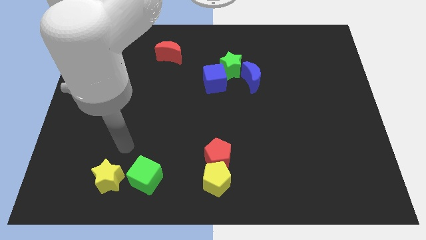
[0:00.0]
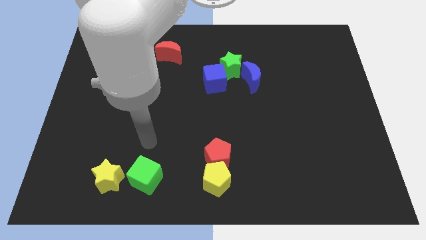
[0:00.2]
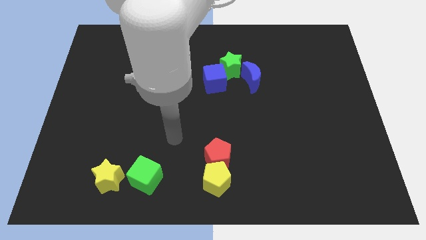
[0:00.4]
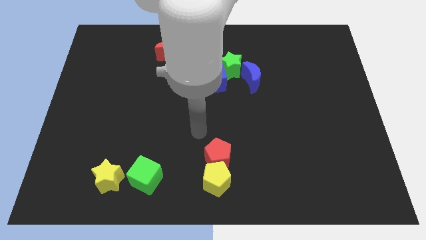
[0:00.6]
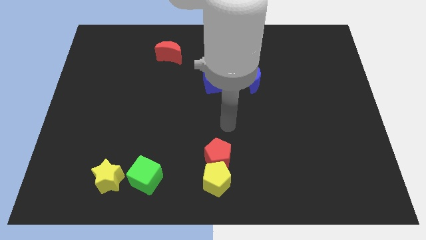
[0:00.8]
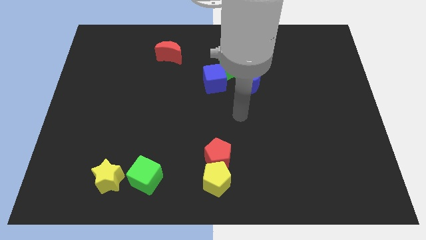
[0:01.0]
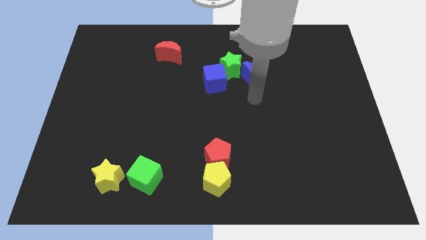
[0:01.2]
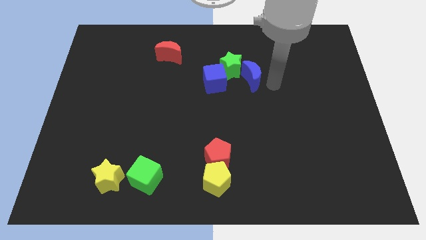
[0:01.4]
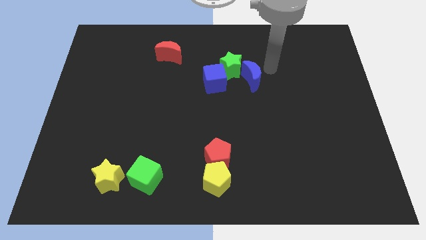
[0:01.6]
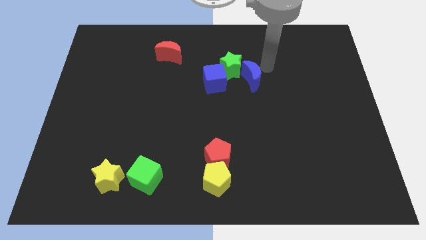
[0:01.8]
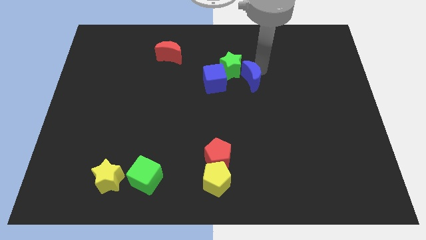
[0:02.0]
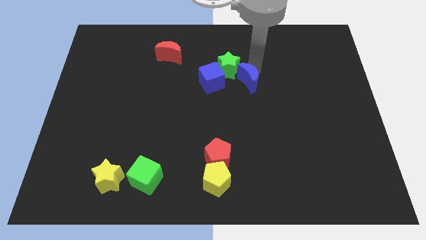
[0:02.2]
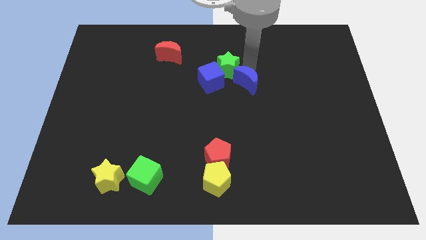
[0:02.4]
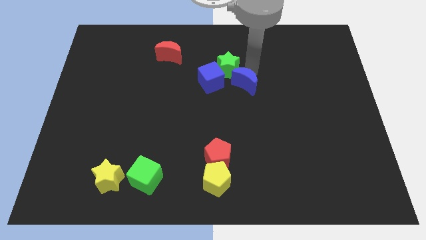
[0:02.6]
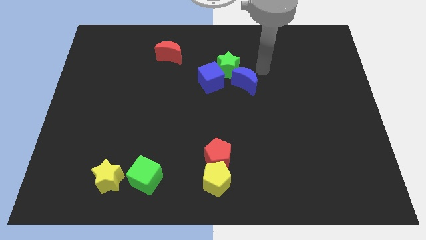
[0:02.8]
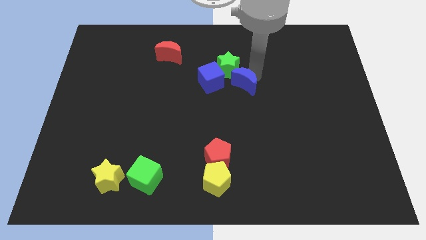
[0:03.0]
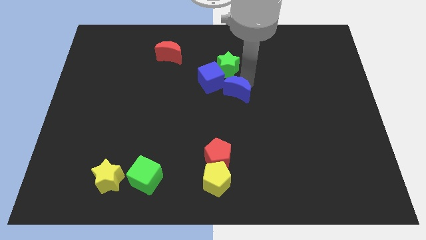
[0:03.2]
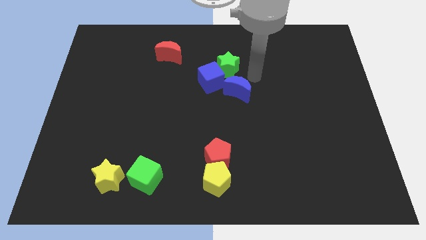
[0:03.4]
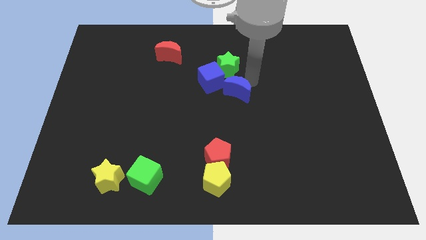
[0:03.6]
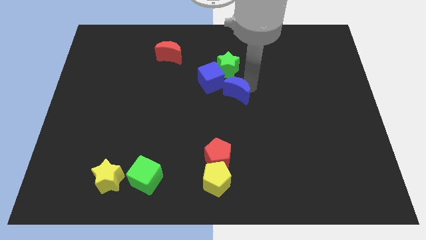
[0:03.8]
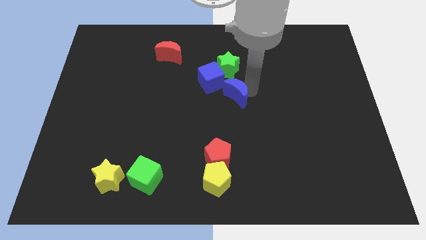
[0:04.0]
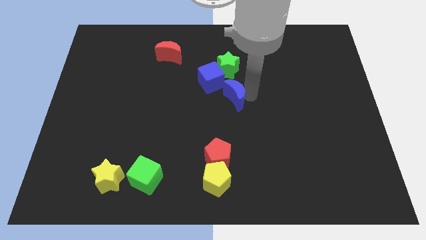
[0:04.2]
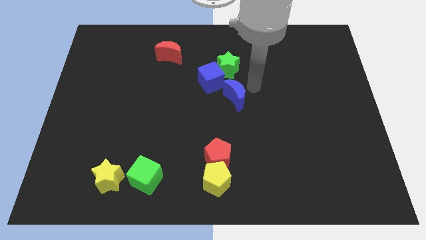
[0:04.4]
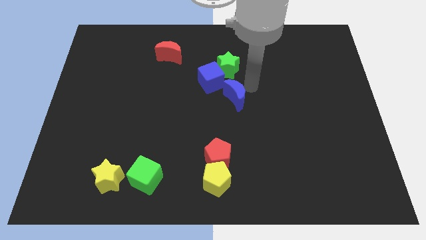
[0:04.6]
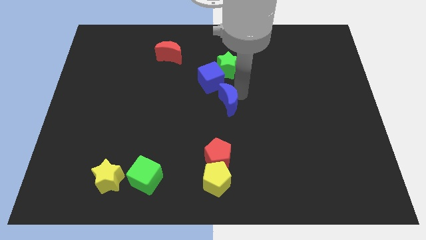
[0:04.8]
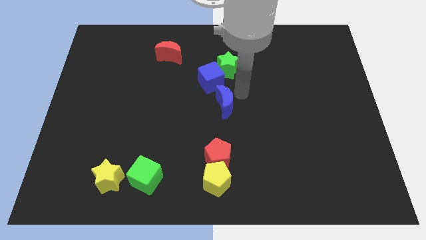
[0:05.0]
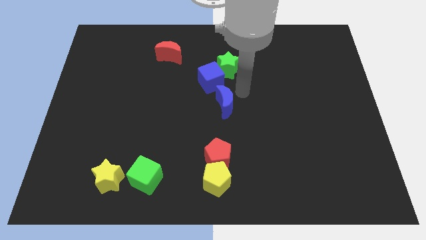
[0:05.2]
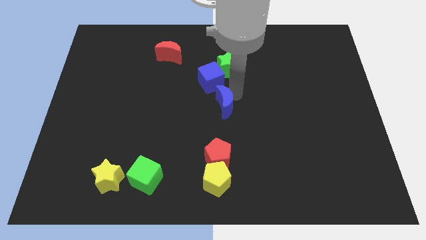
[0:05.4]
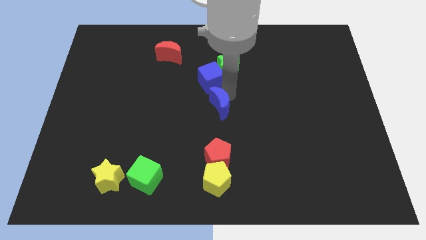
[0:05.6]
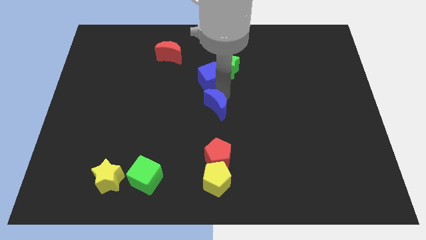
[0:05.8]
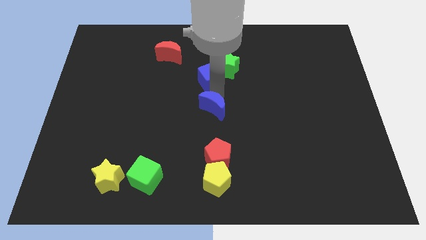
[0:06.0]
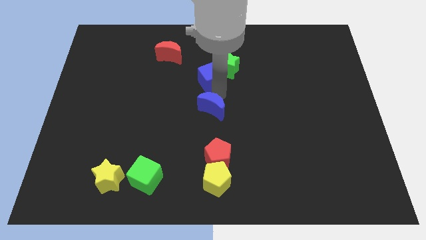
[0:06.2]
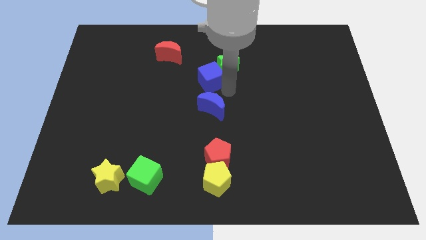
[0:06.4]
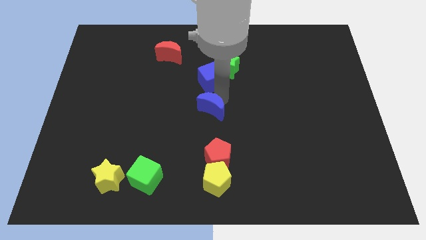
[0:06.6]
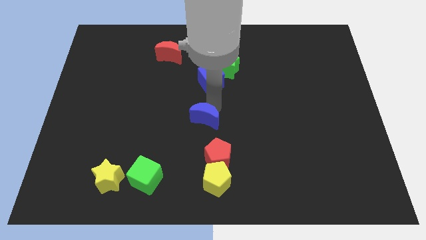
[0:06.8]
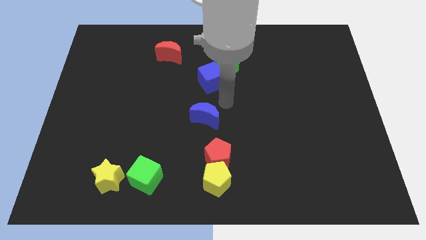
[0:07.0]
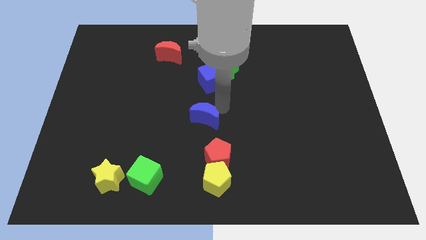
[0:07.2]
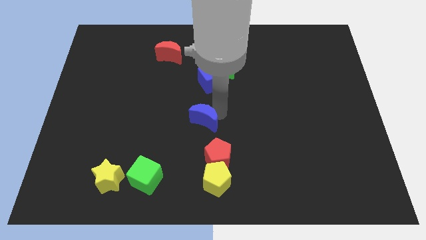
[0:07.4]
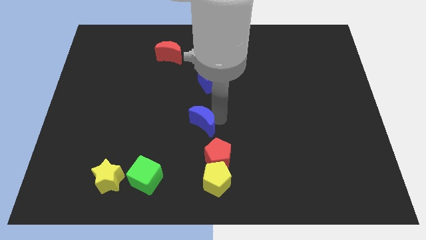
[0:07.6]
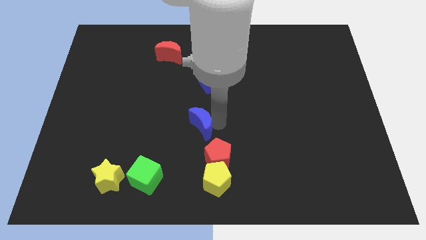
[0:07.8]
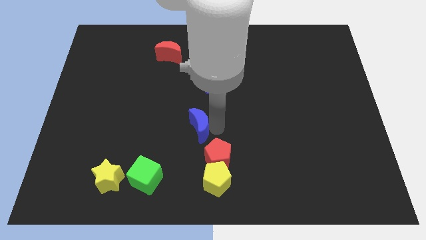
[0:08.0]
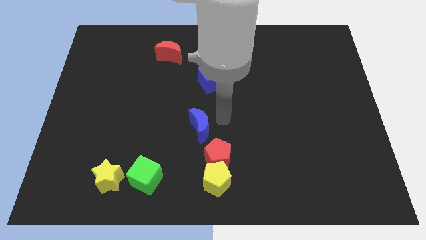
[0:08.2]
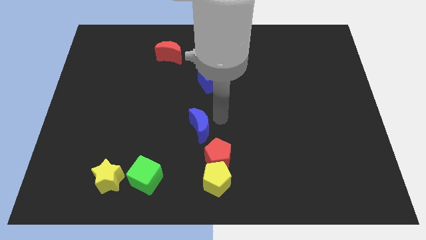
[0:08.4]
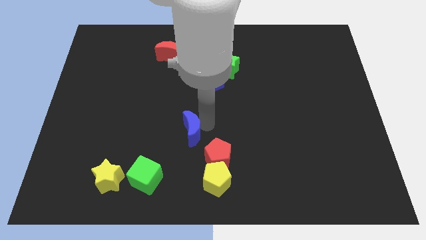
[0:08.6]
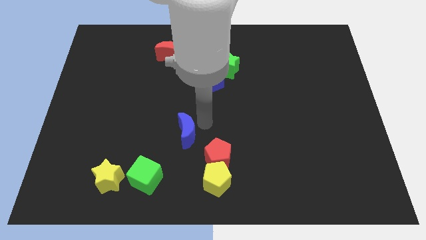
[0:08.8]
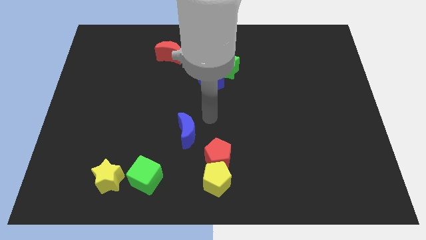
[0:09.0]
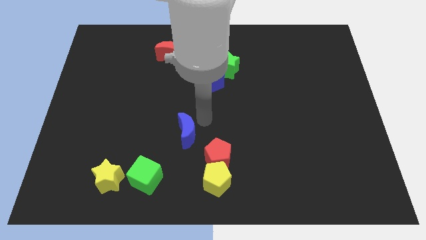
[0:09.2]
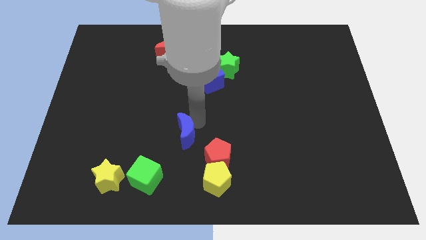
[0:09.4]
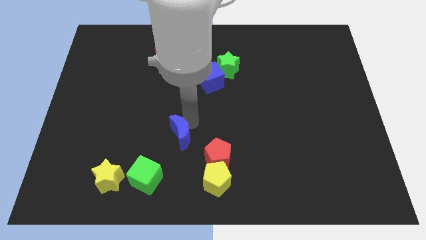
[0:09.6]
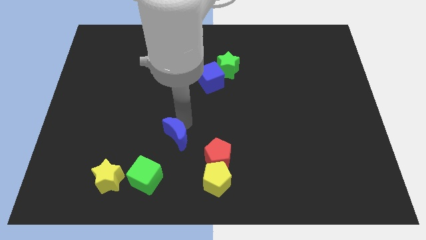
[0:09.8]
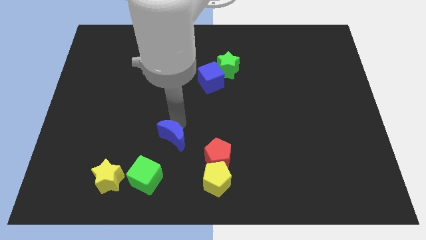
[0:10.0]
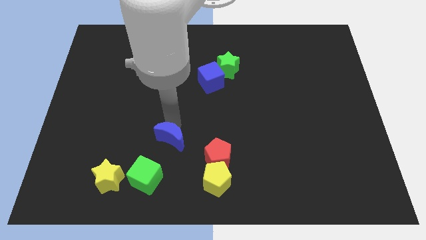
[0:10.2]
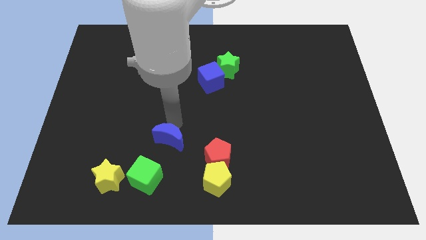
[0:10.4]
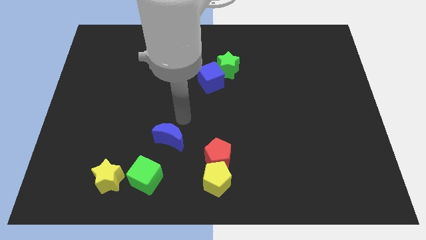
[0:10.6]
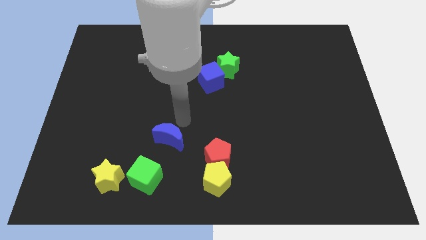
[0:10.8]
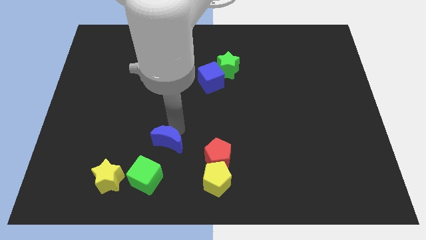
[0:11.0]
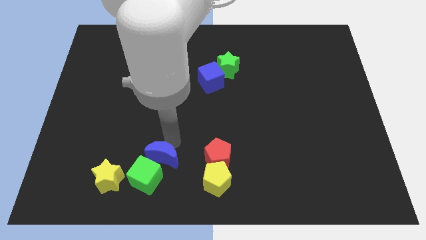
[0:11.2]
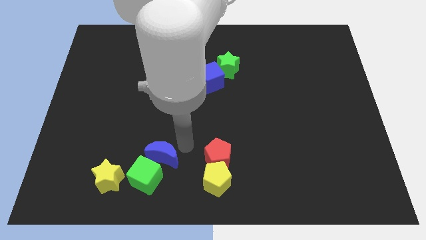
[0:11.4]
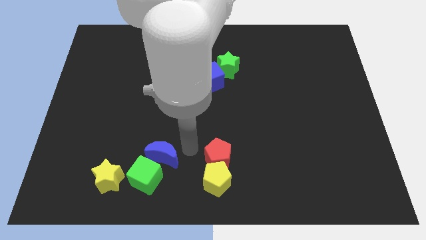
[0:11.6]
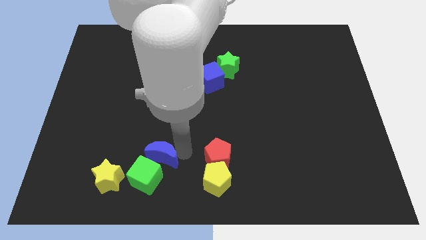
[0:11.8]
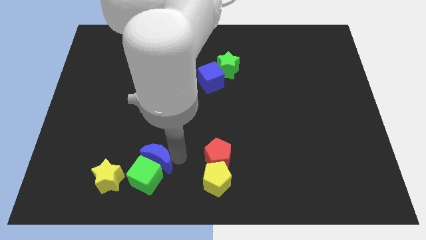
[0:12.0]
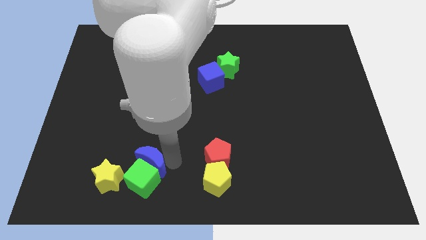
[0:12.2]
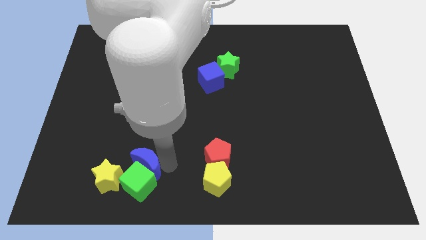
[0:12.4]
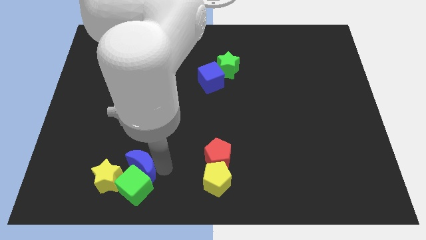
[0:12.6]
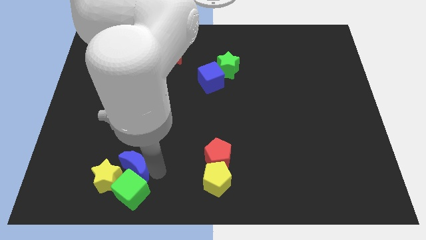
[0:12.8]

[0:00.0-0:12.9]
slide the blue moon to the yellow star

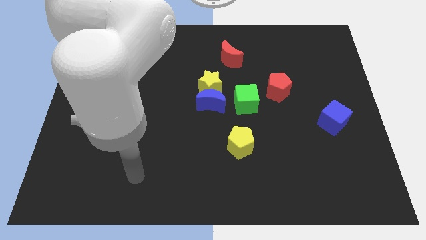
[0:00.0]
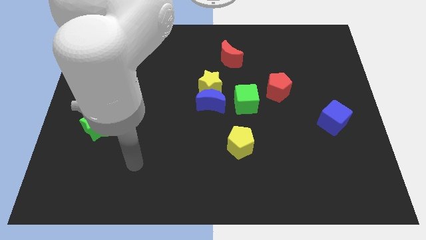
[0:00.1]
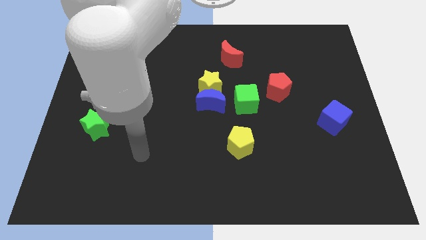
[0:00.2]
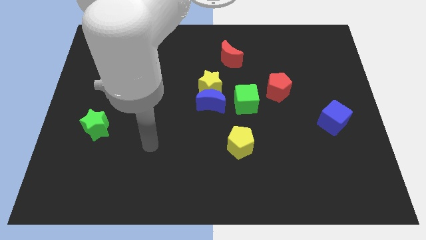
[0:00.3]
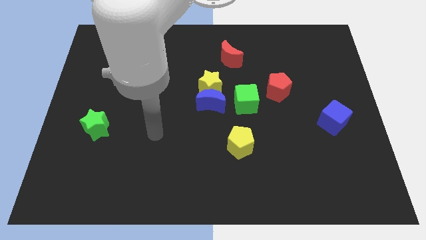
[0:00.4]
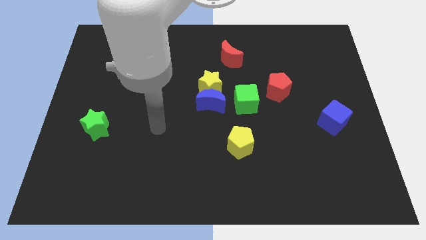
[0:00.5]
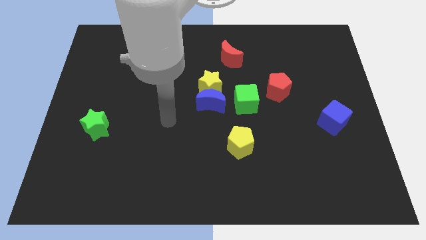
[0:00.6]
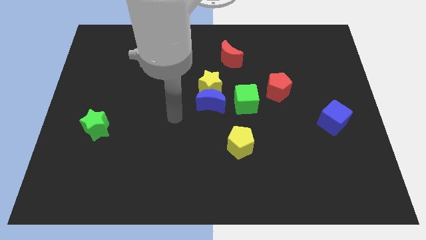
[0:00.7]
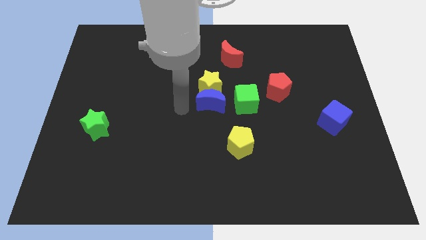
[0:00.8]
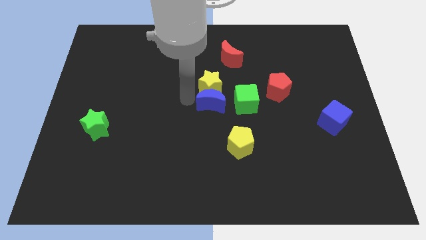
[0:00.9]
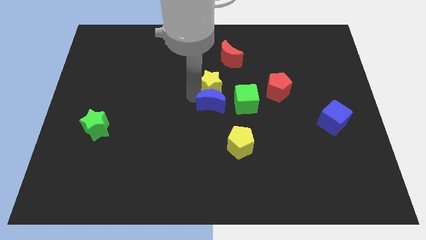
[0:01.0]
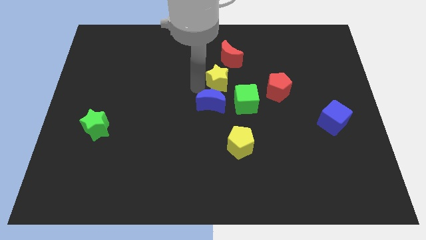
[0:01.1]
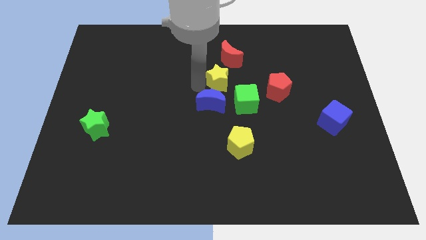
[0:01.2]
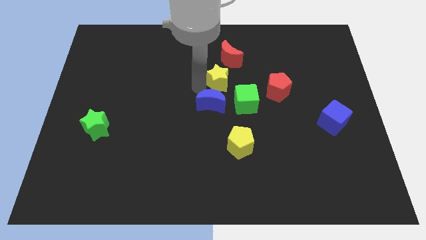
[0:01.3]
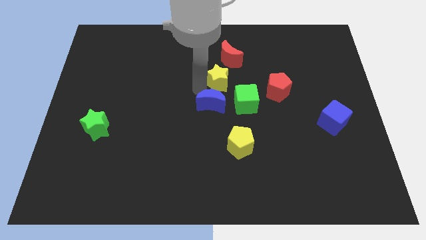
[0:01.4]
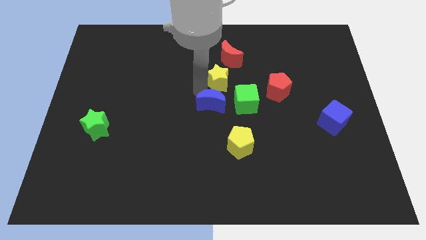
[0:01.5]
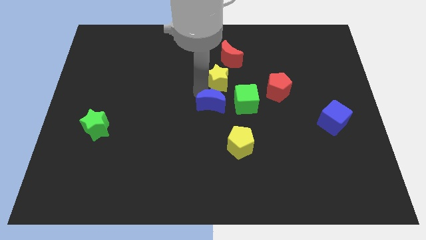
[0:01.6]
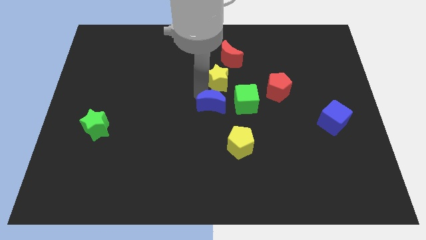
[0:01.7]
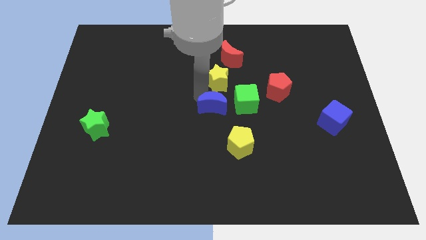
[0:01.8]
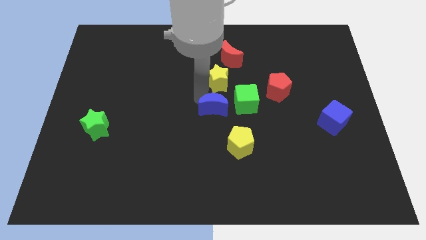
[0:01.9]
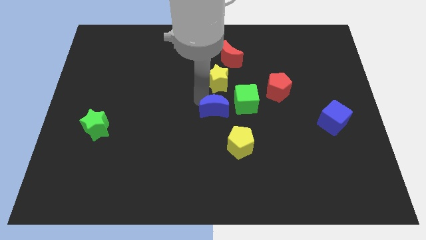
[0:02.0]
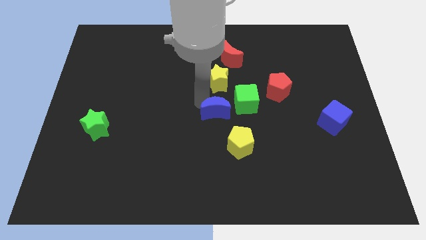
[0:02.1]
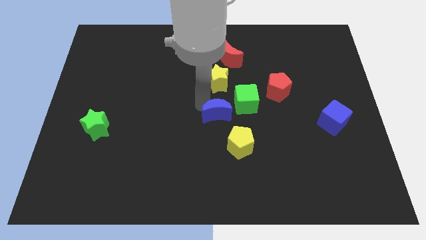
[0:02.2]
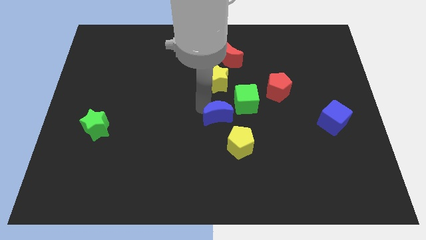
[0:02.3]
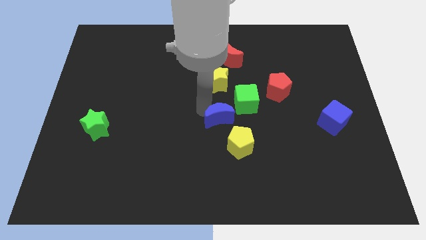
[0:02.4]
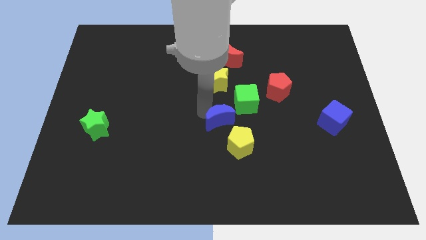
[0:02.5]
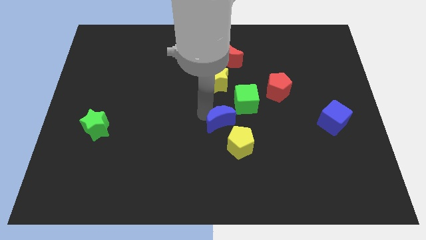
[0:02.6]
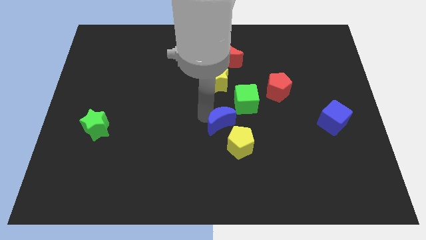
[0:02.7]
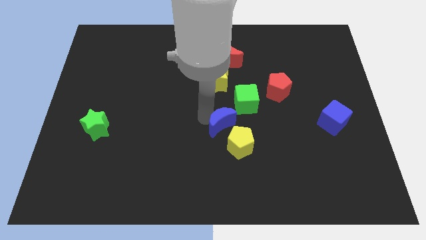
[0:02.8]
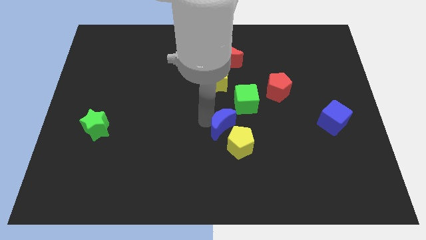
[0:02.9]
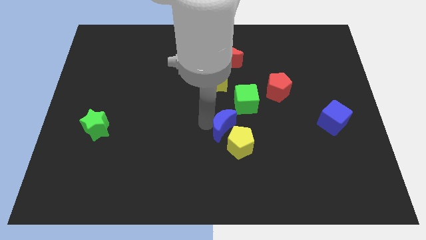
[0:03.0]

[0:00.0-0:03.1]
push the blue moon to the yellow pentagon
